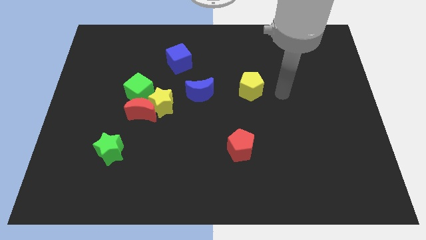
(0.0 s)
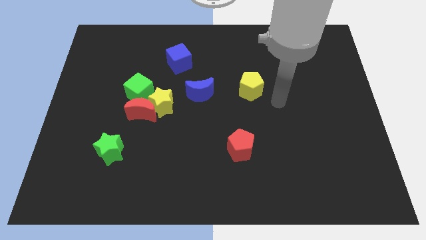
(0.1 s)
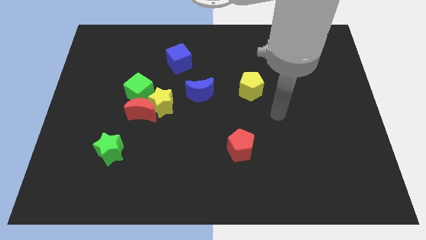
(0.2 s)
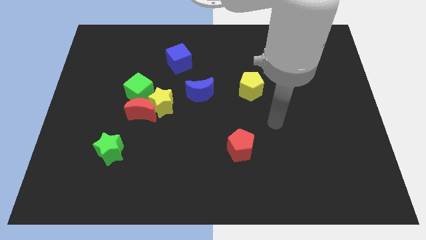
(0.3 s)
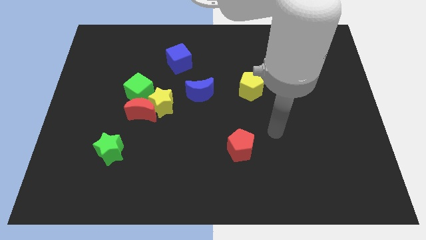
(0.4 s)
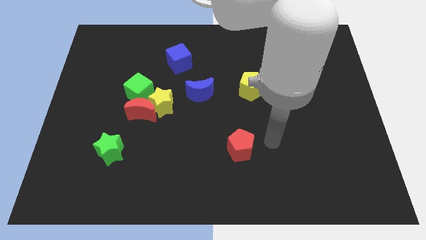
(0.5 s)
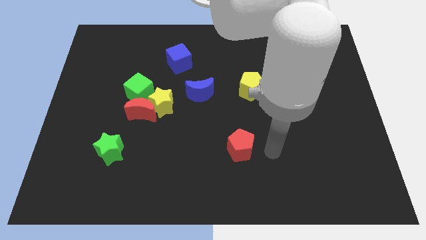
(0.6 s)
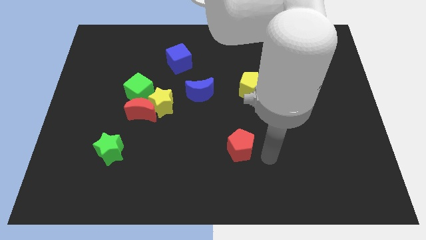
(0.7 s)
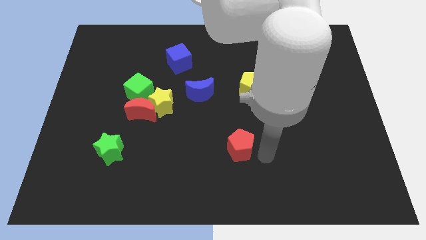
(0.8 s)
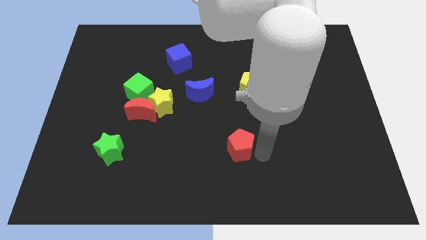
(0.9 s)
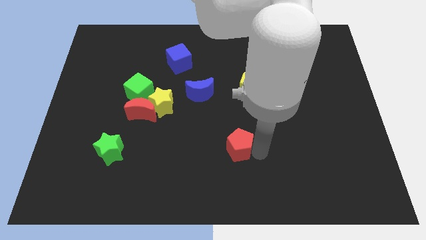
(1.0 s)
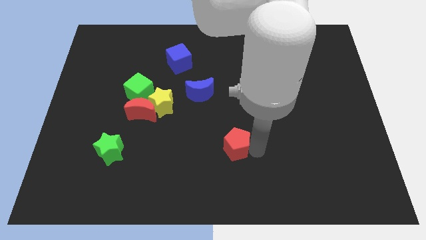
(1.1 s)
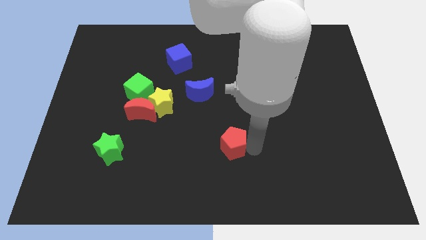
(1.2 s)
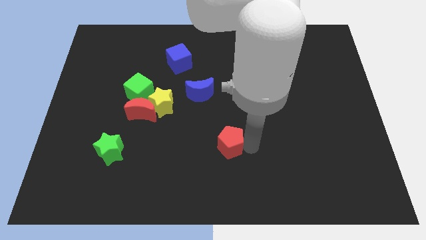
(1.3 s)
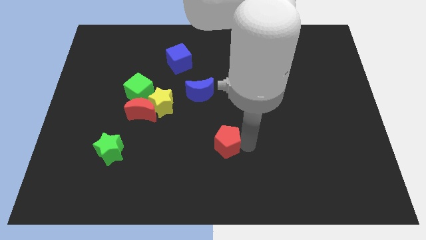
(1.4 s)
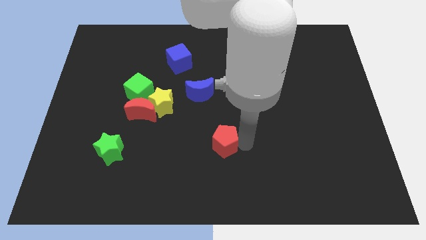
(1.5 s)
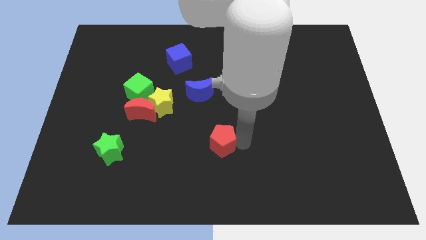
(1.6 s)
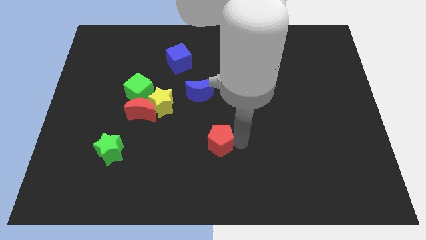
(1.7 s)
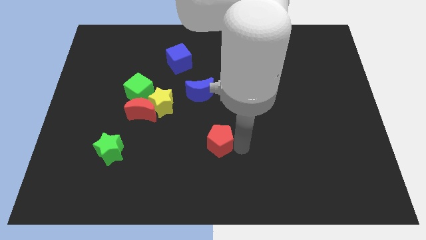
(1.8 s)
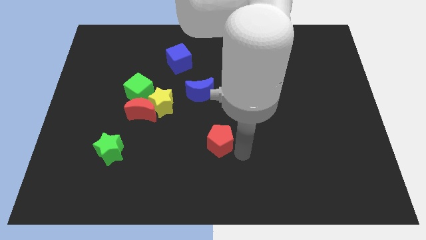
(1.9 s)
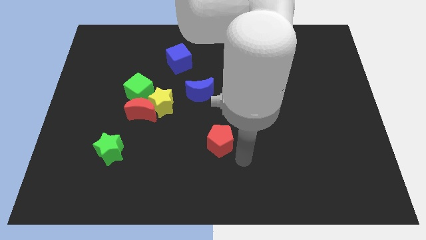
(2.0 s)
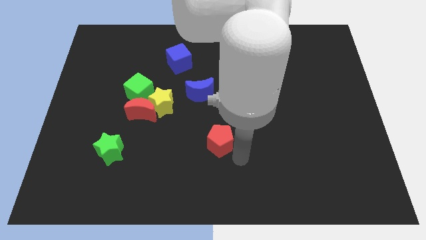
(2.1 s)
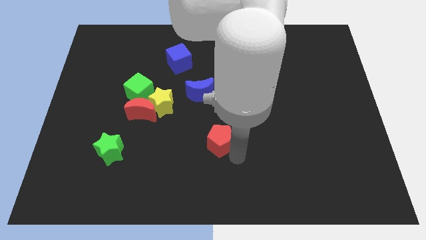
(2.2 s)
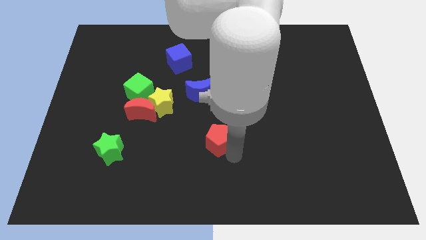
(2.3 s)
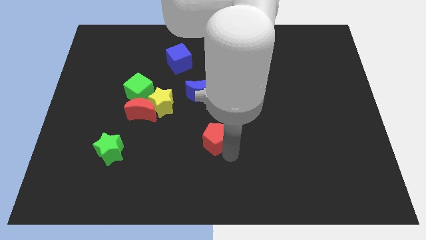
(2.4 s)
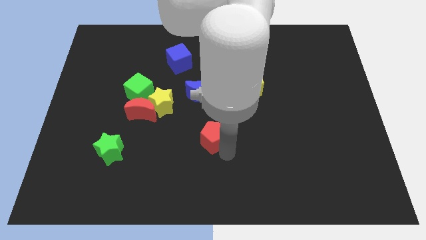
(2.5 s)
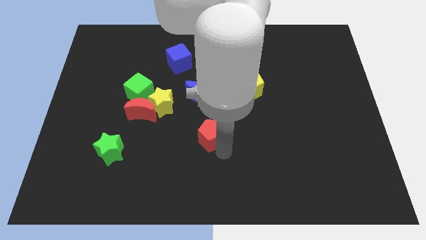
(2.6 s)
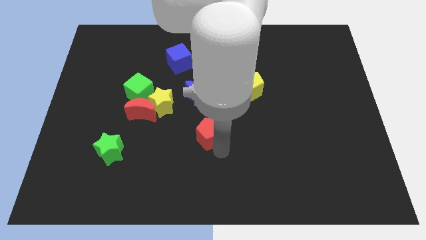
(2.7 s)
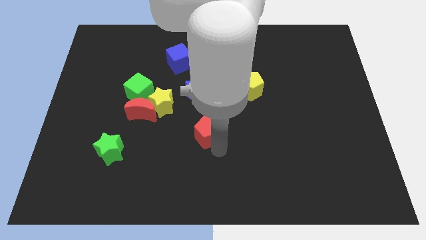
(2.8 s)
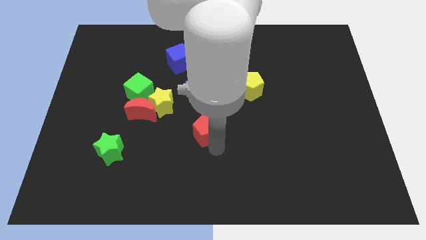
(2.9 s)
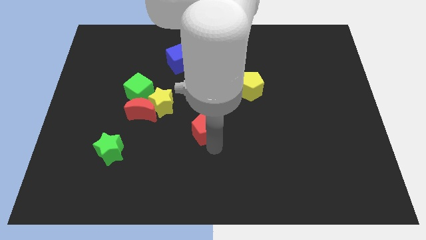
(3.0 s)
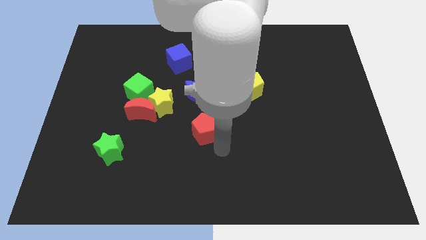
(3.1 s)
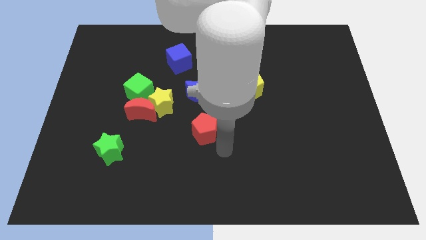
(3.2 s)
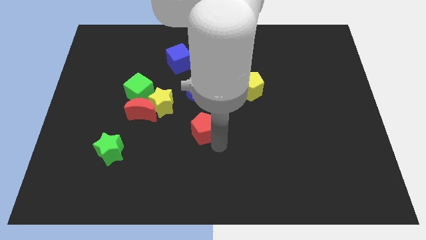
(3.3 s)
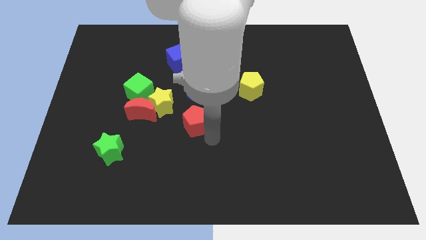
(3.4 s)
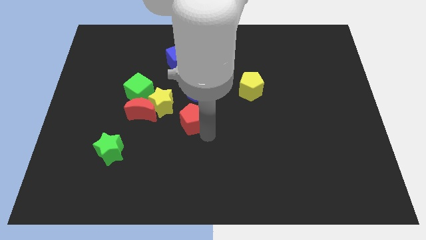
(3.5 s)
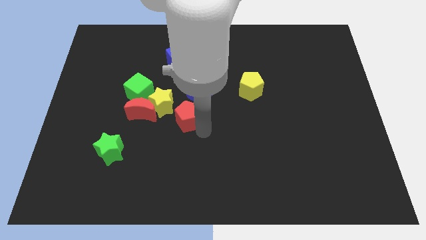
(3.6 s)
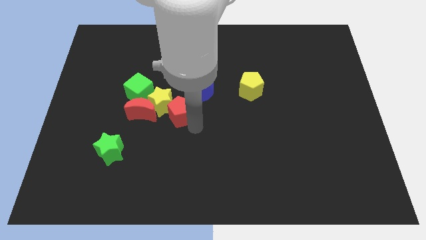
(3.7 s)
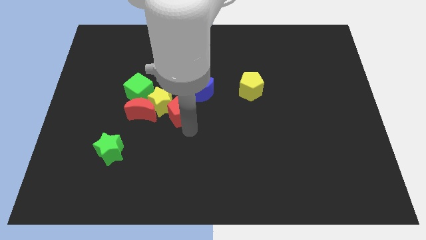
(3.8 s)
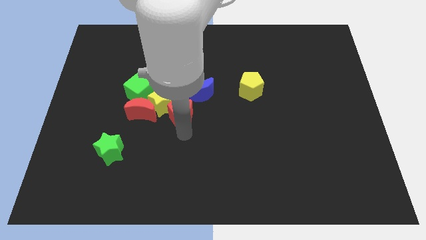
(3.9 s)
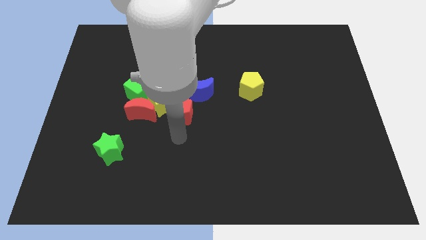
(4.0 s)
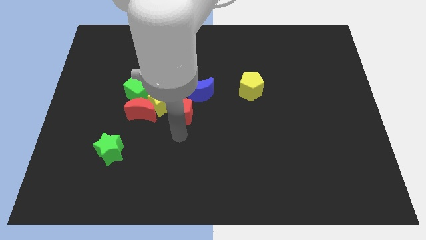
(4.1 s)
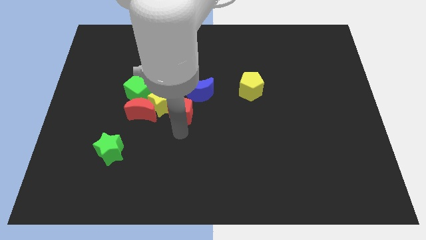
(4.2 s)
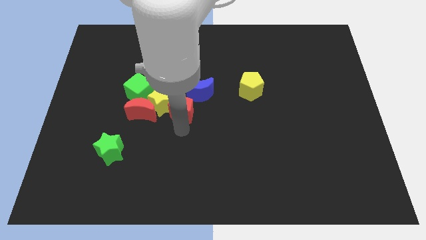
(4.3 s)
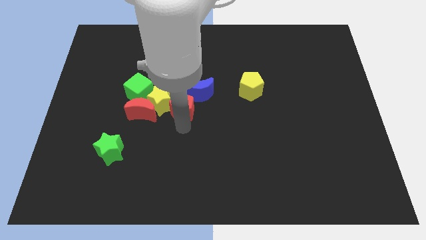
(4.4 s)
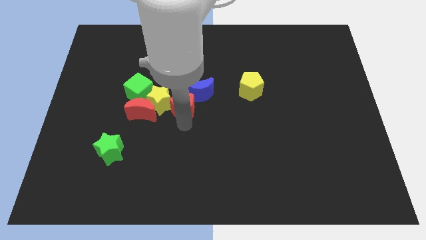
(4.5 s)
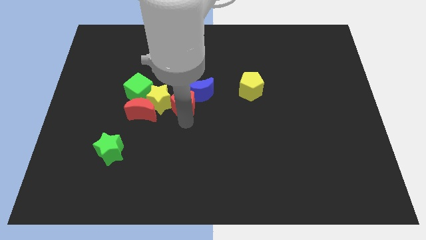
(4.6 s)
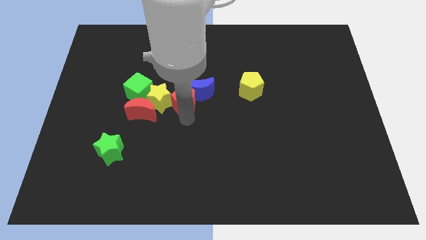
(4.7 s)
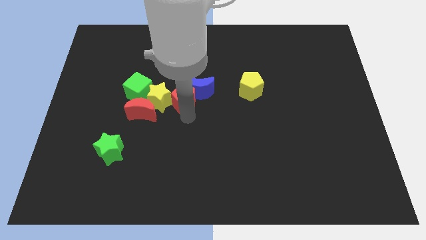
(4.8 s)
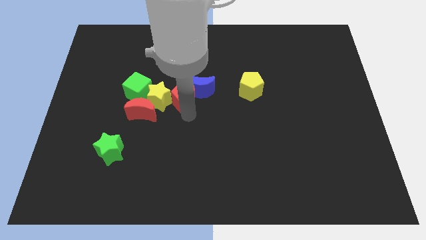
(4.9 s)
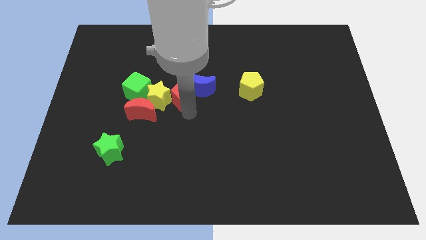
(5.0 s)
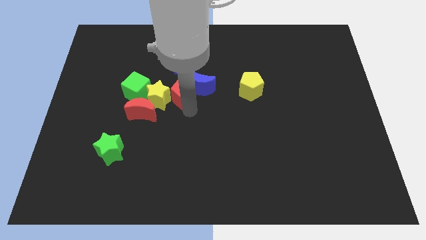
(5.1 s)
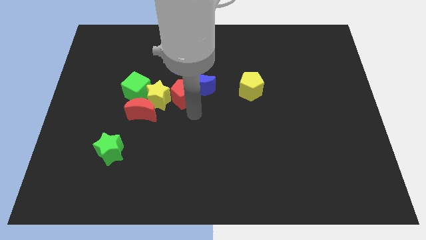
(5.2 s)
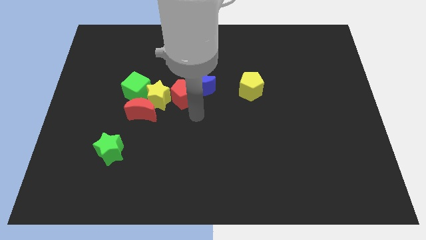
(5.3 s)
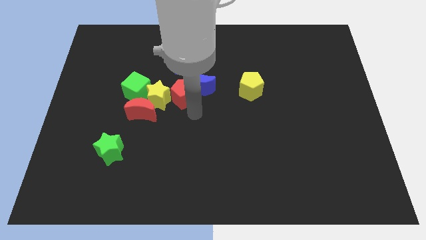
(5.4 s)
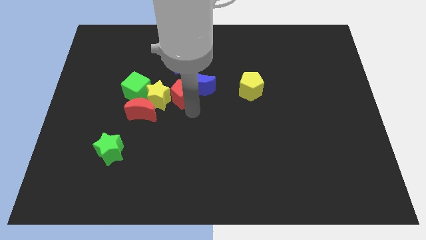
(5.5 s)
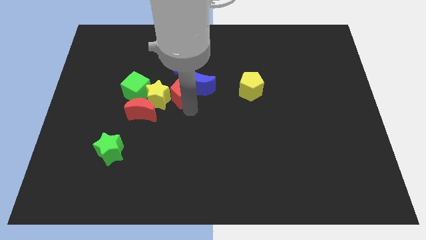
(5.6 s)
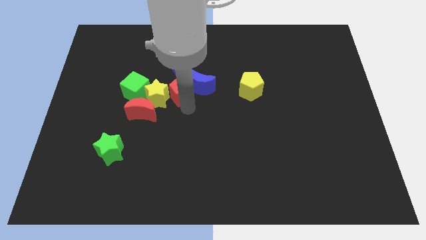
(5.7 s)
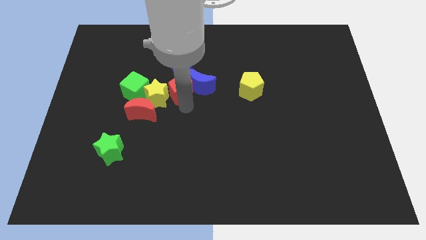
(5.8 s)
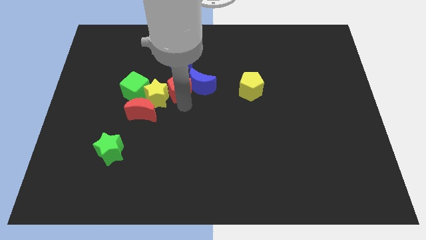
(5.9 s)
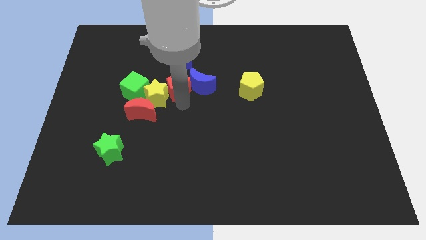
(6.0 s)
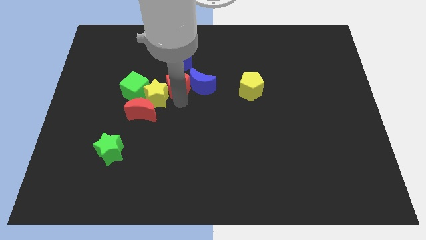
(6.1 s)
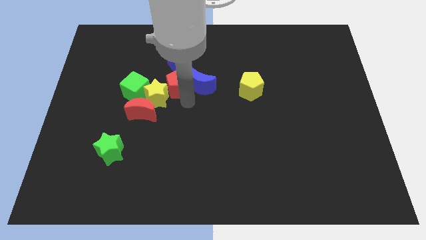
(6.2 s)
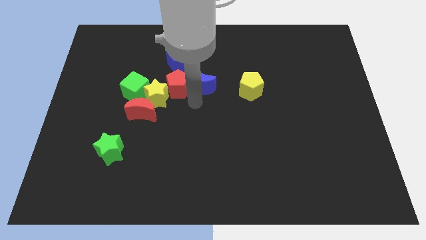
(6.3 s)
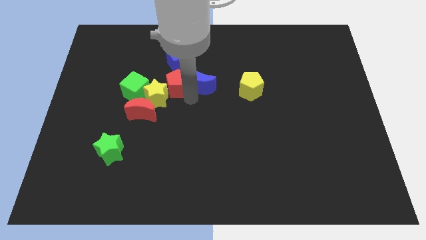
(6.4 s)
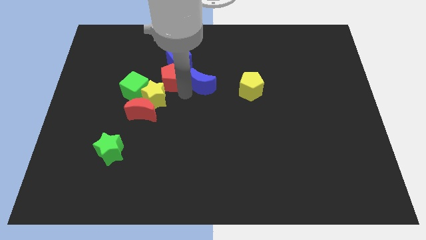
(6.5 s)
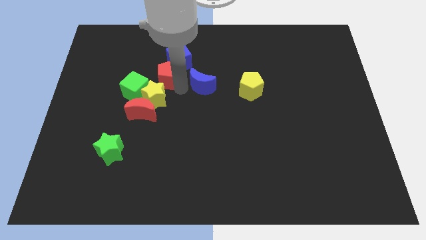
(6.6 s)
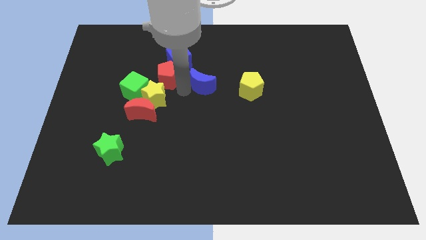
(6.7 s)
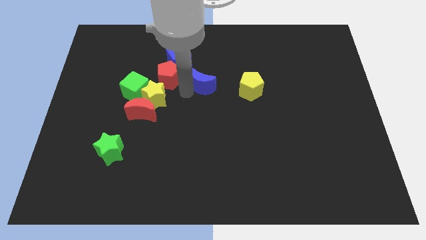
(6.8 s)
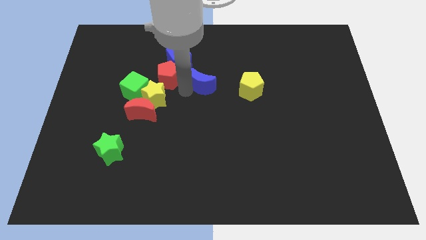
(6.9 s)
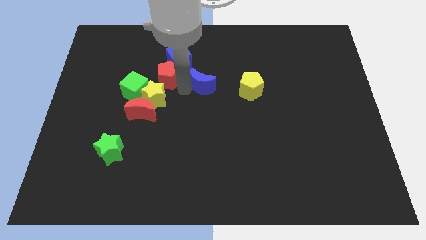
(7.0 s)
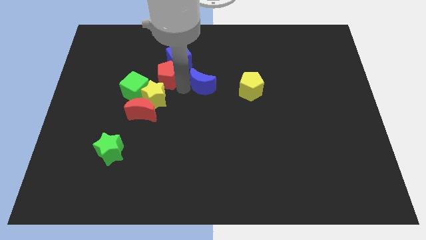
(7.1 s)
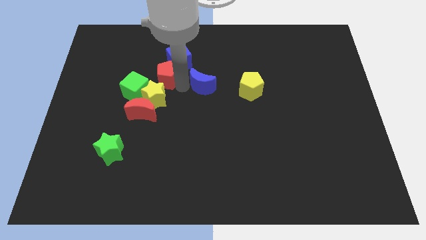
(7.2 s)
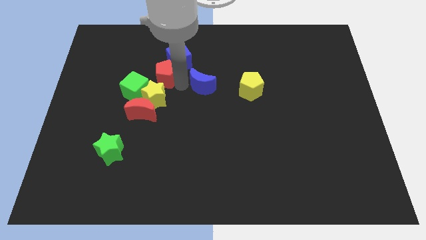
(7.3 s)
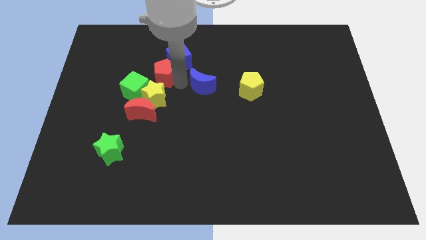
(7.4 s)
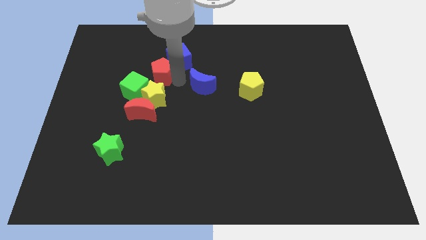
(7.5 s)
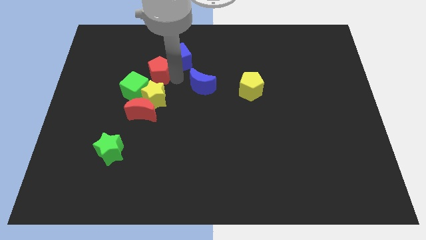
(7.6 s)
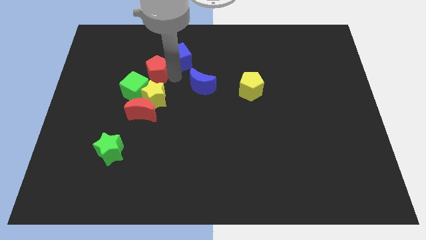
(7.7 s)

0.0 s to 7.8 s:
move the red pentagon to the top of the green cube
